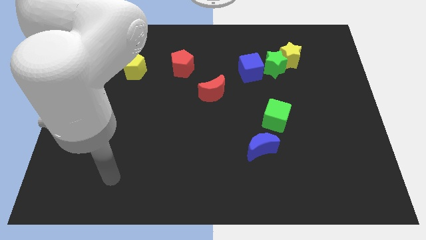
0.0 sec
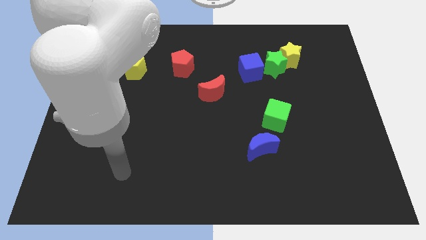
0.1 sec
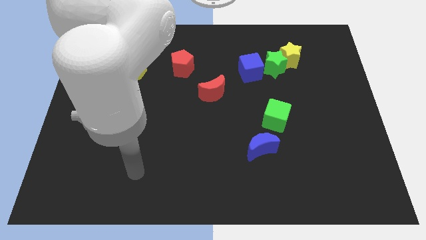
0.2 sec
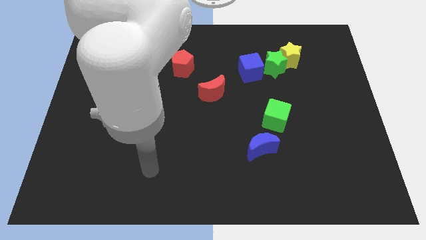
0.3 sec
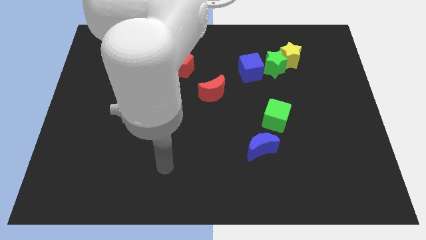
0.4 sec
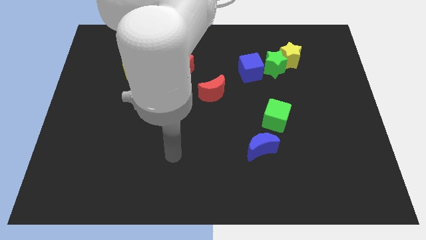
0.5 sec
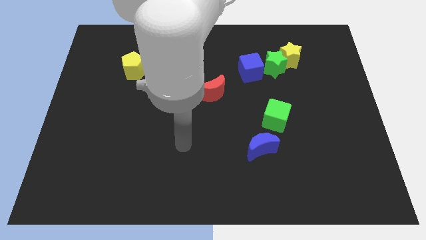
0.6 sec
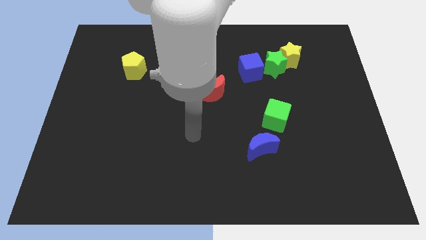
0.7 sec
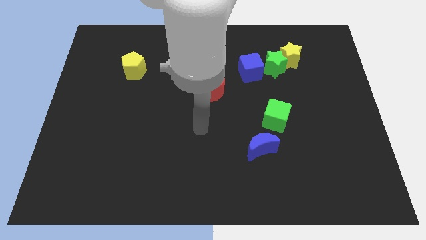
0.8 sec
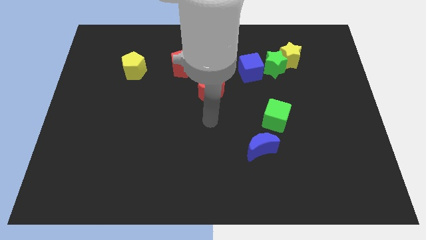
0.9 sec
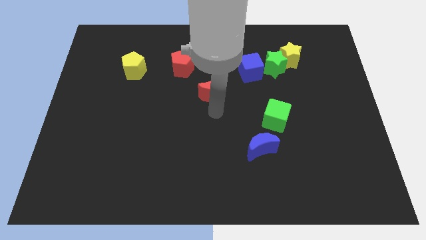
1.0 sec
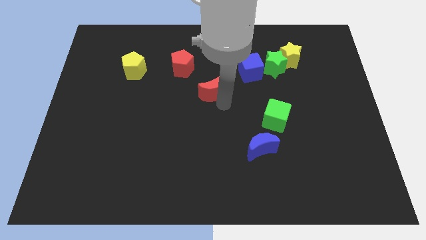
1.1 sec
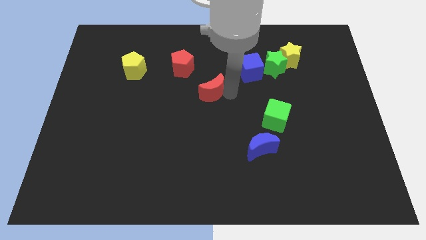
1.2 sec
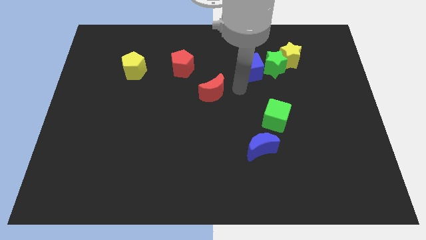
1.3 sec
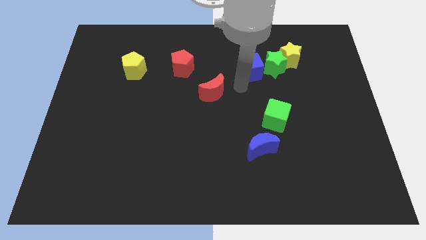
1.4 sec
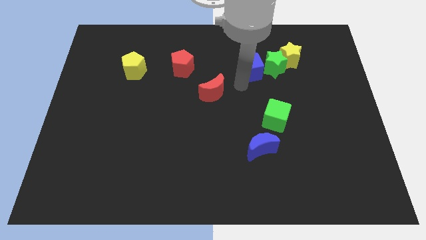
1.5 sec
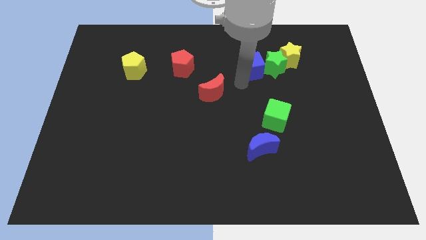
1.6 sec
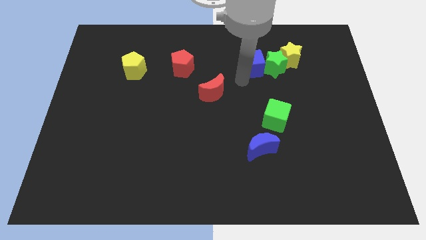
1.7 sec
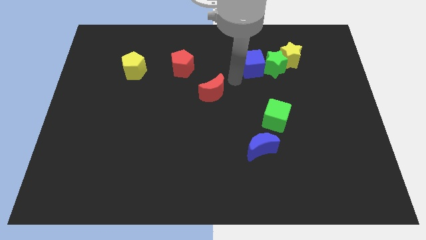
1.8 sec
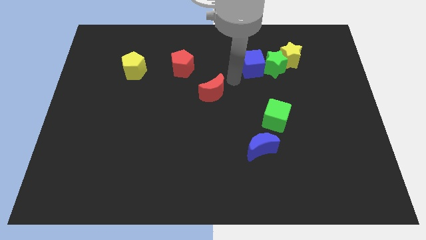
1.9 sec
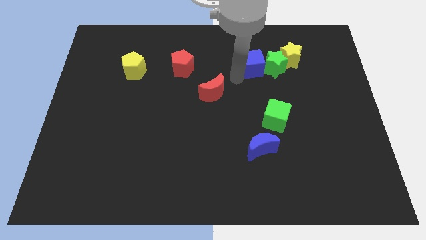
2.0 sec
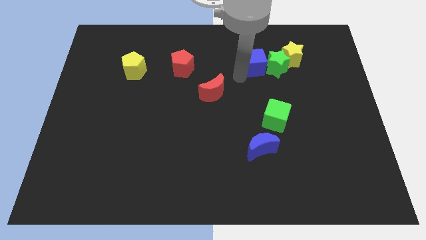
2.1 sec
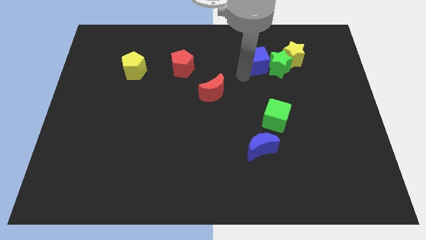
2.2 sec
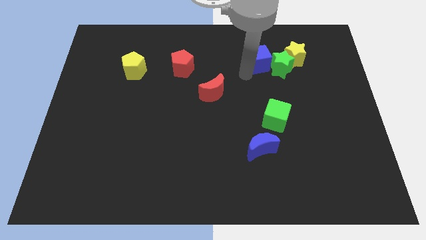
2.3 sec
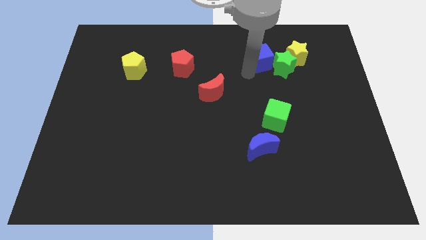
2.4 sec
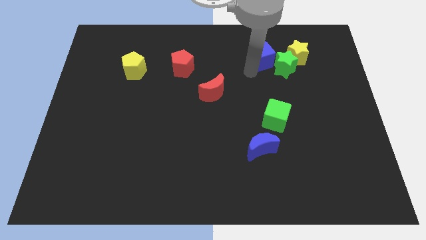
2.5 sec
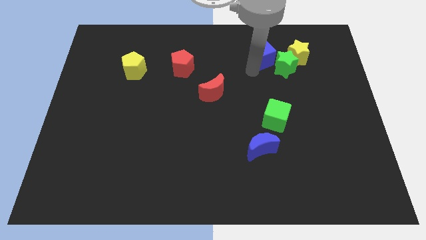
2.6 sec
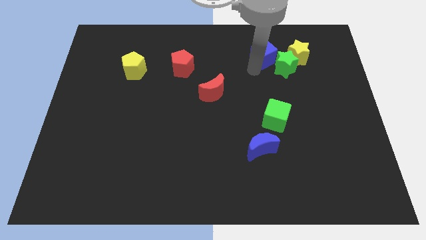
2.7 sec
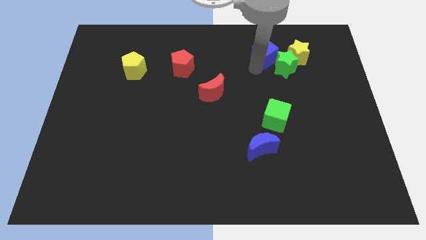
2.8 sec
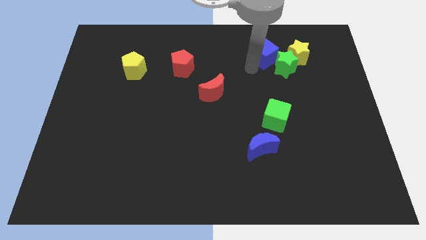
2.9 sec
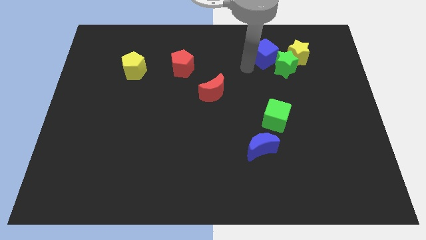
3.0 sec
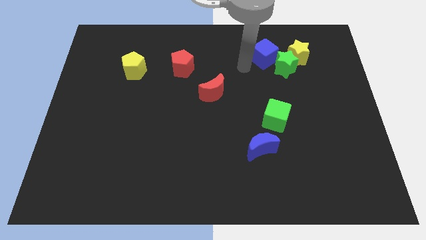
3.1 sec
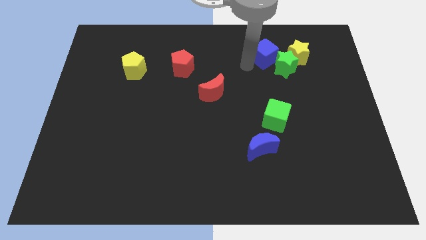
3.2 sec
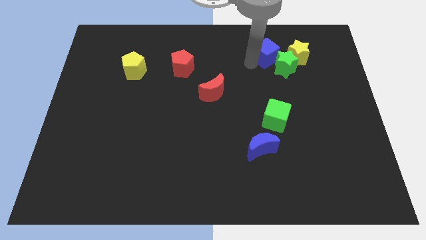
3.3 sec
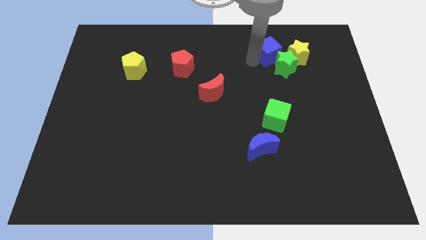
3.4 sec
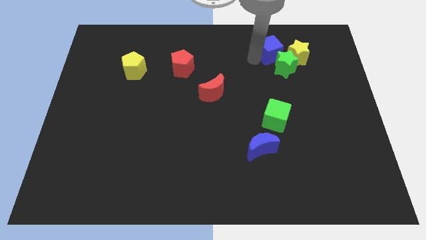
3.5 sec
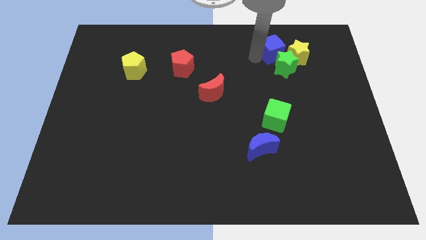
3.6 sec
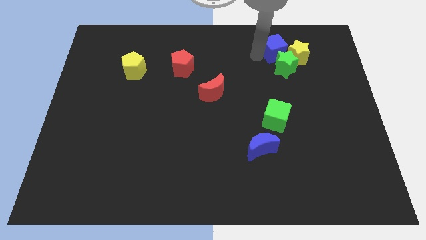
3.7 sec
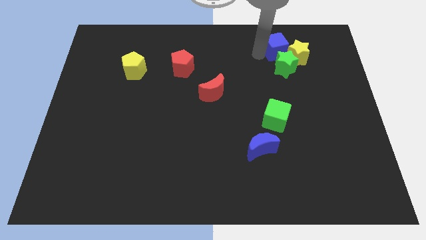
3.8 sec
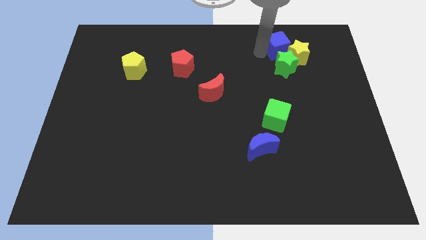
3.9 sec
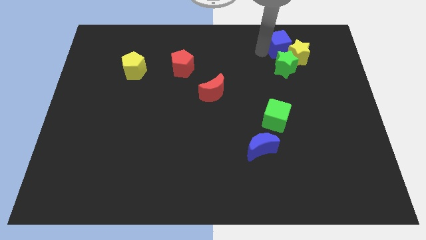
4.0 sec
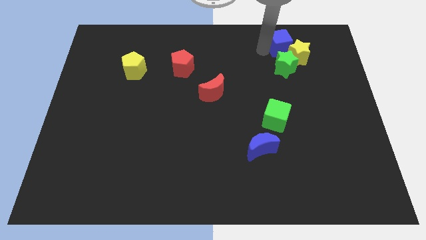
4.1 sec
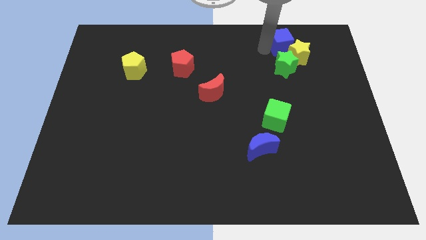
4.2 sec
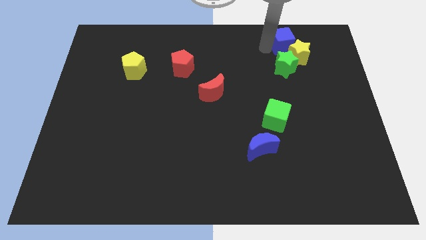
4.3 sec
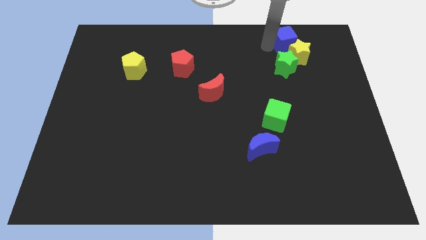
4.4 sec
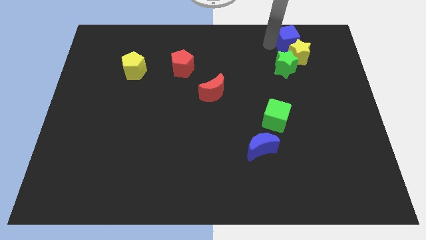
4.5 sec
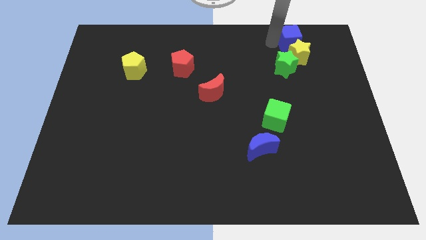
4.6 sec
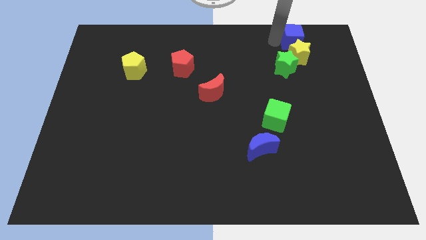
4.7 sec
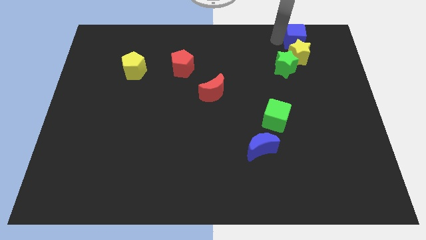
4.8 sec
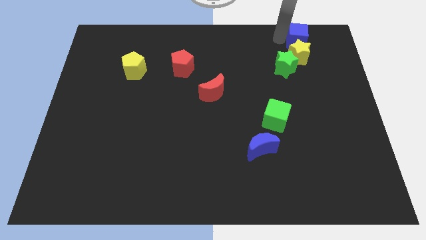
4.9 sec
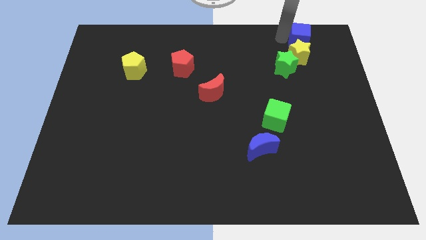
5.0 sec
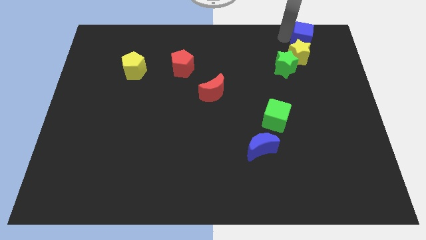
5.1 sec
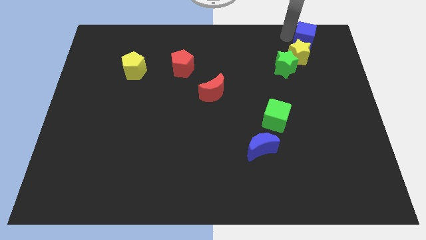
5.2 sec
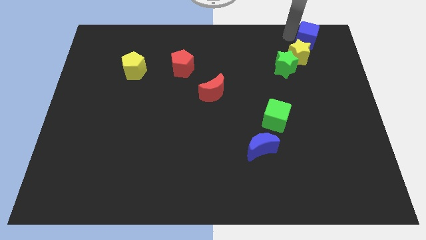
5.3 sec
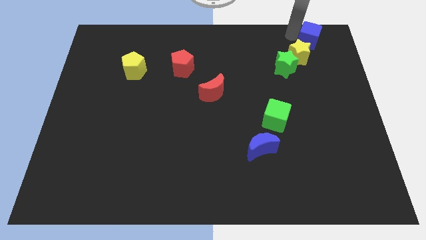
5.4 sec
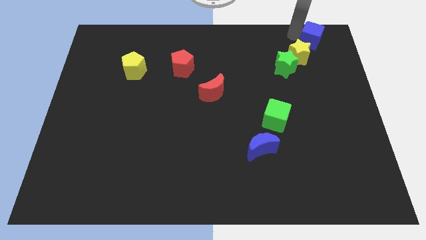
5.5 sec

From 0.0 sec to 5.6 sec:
slide the blue cube to the top right
